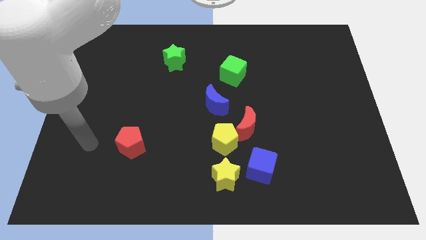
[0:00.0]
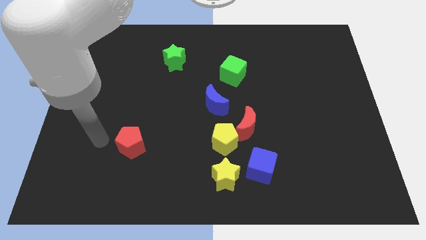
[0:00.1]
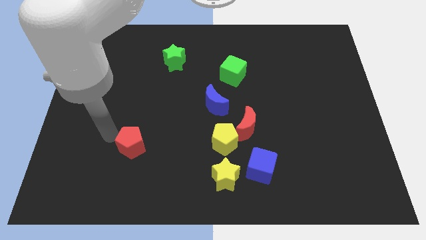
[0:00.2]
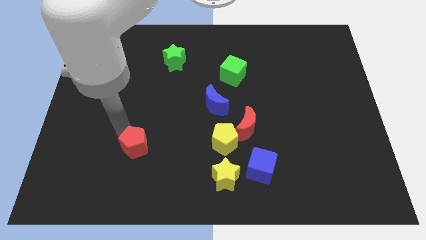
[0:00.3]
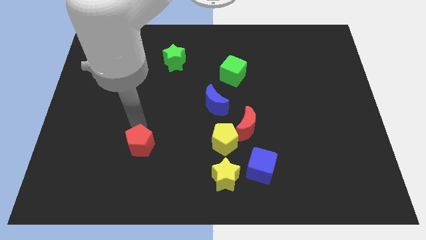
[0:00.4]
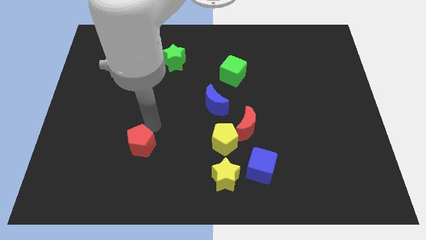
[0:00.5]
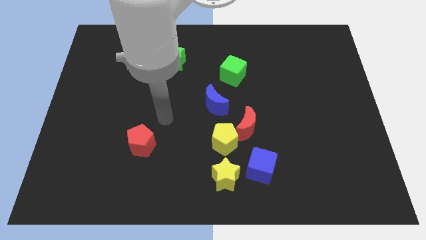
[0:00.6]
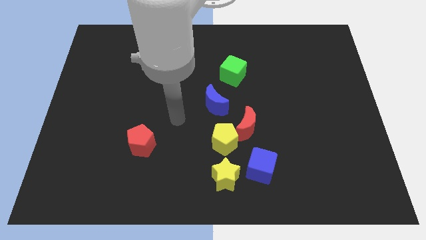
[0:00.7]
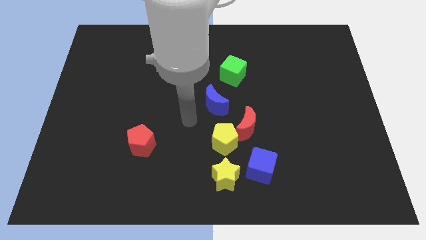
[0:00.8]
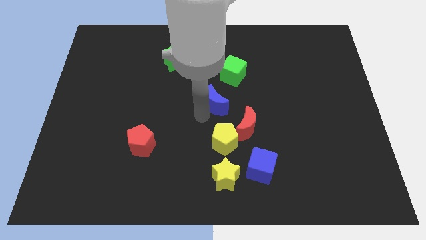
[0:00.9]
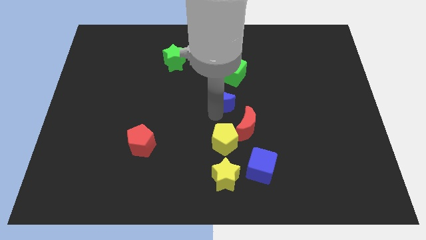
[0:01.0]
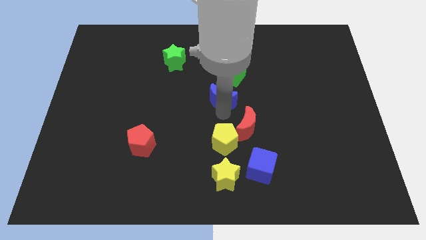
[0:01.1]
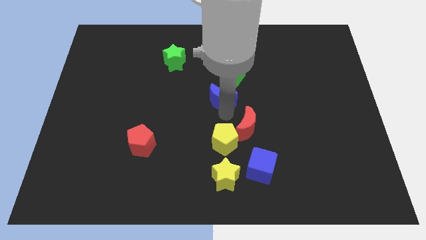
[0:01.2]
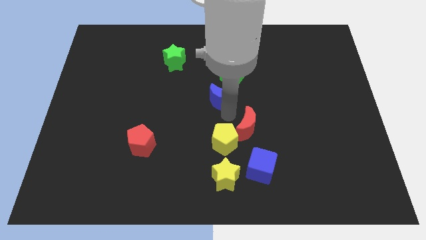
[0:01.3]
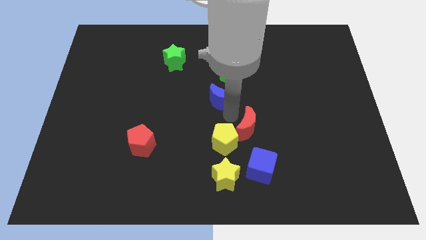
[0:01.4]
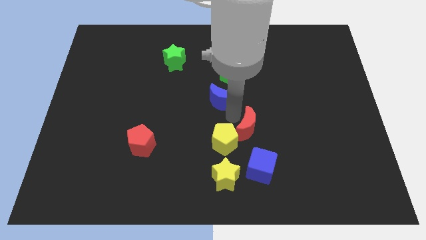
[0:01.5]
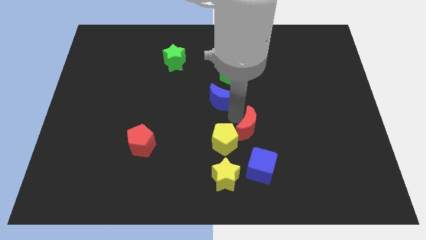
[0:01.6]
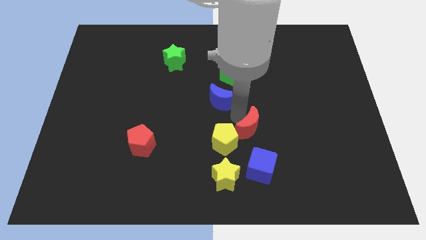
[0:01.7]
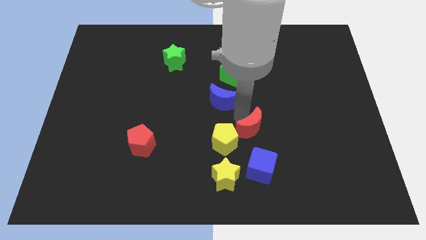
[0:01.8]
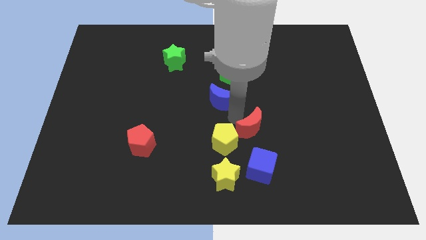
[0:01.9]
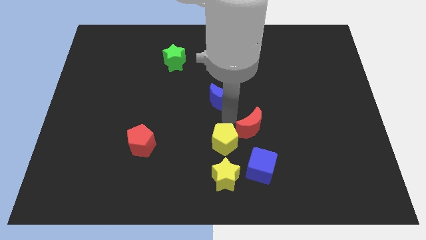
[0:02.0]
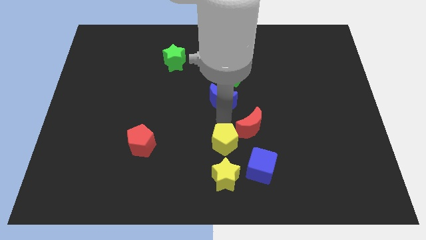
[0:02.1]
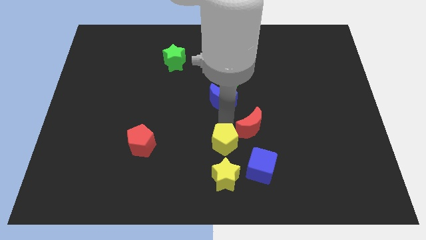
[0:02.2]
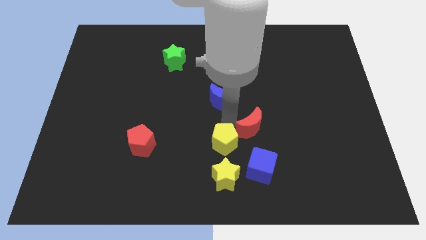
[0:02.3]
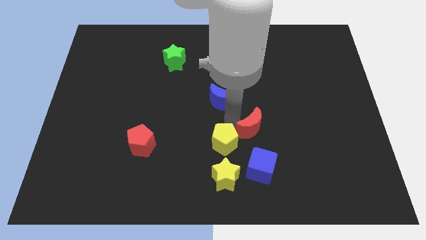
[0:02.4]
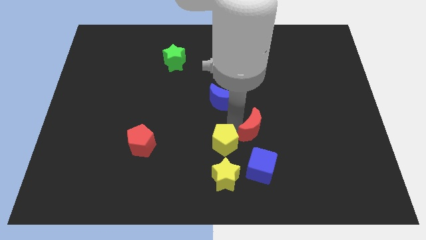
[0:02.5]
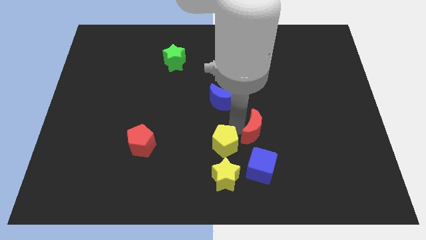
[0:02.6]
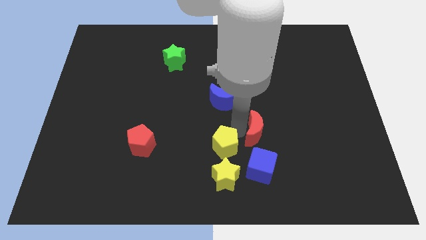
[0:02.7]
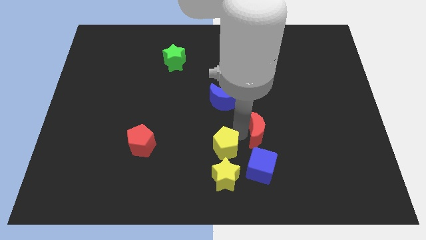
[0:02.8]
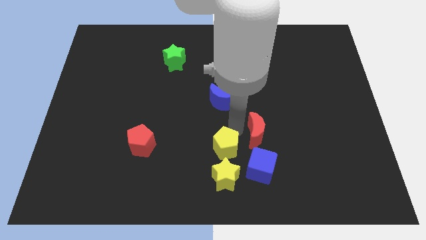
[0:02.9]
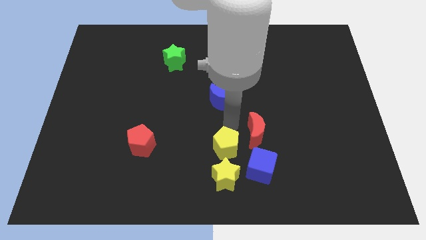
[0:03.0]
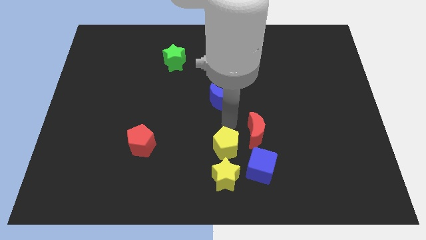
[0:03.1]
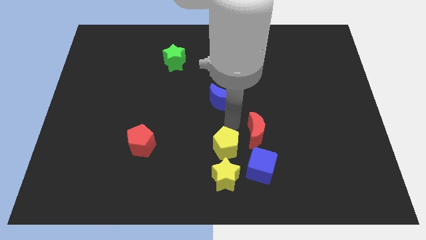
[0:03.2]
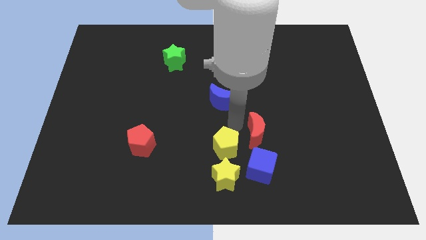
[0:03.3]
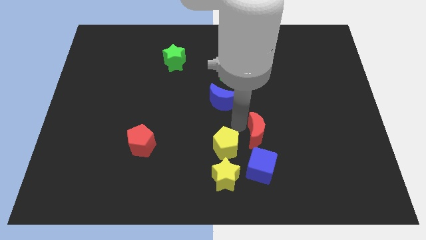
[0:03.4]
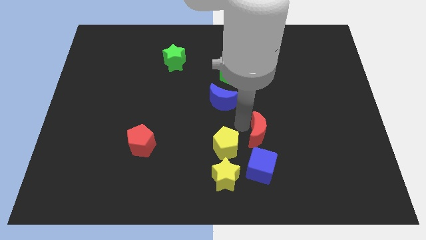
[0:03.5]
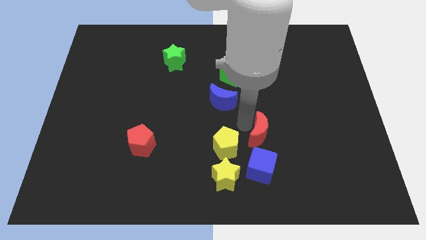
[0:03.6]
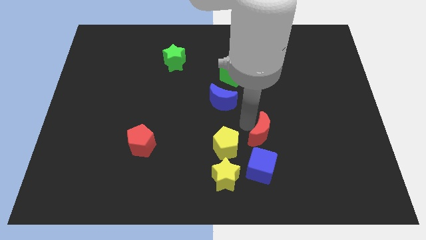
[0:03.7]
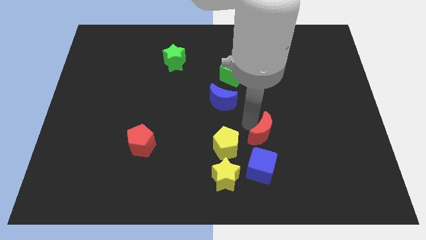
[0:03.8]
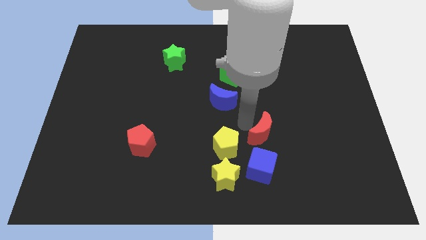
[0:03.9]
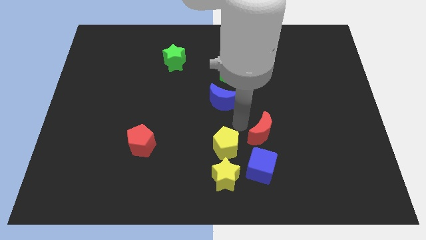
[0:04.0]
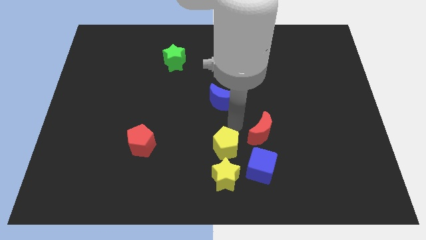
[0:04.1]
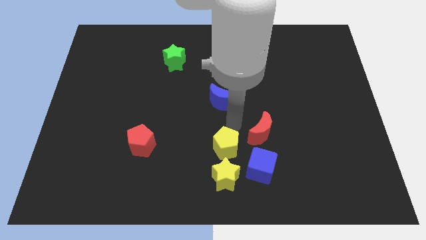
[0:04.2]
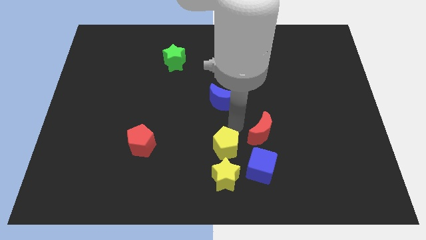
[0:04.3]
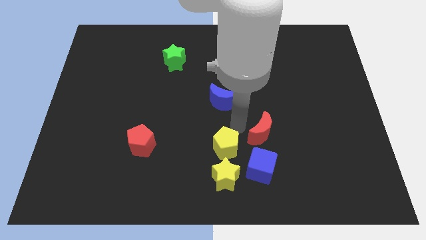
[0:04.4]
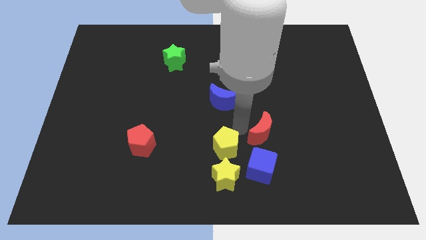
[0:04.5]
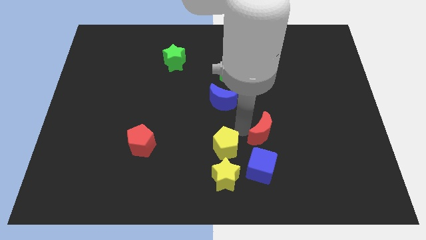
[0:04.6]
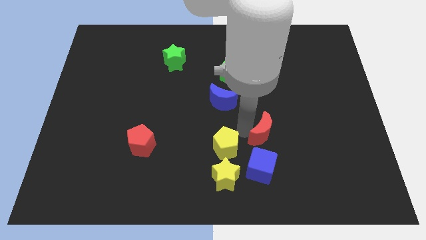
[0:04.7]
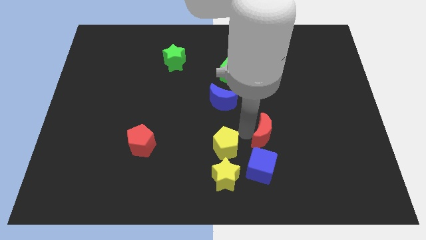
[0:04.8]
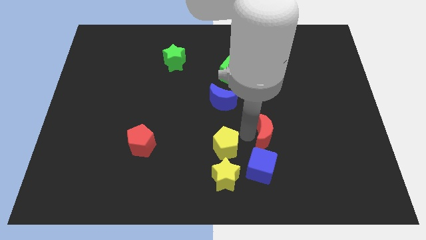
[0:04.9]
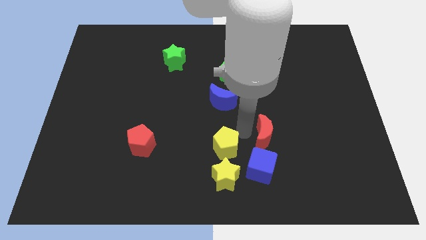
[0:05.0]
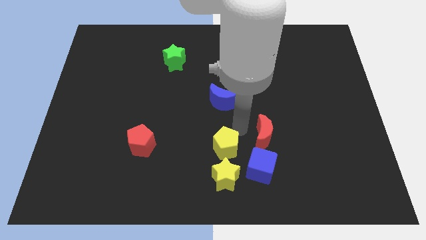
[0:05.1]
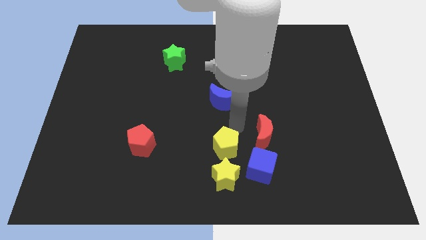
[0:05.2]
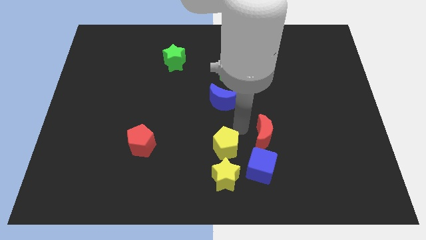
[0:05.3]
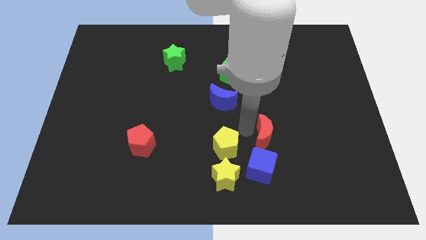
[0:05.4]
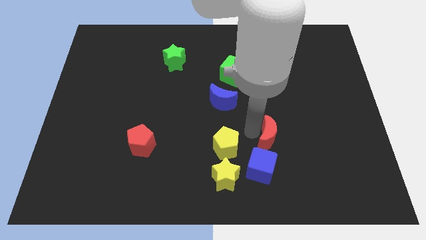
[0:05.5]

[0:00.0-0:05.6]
separate the red moon from the yellow pentagon and blue moon

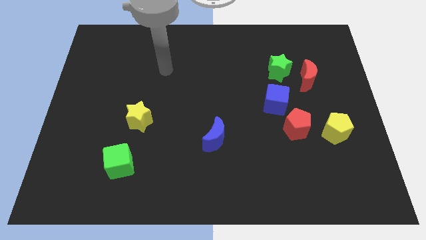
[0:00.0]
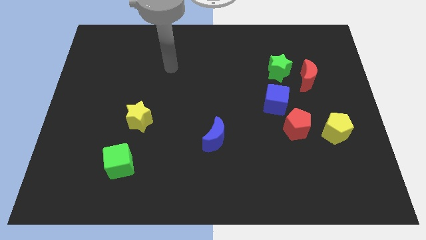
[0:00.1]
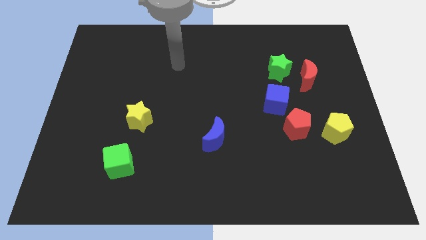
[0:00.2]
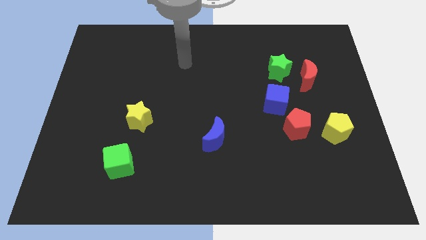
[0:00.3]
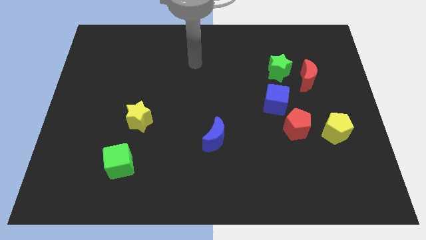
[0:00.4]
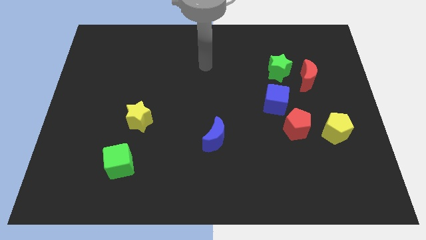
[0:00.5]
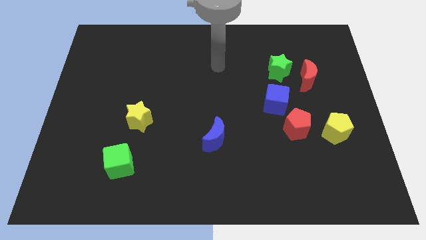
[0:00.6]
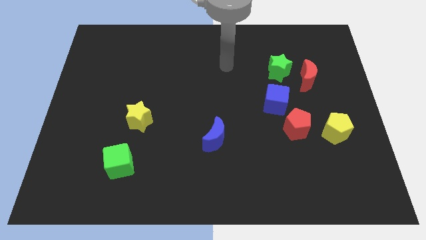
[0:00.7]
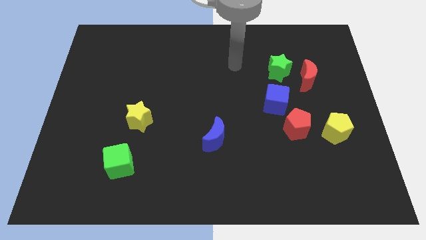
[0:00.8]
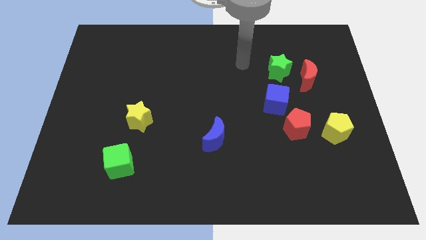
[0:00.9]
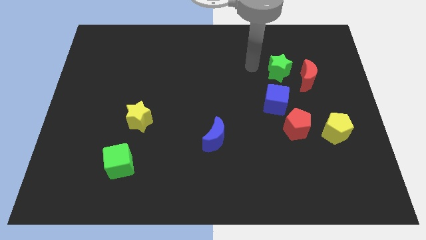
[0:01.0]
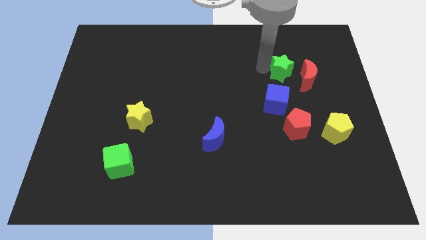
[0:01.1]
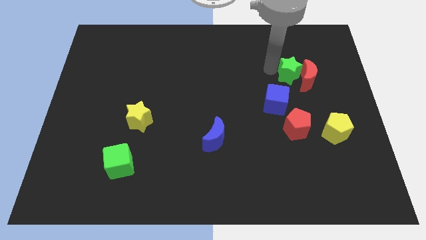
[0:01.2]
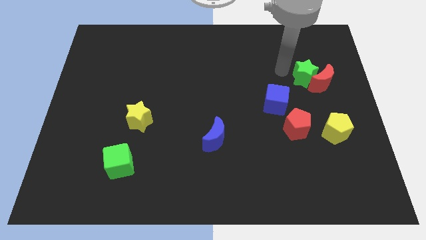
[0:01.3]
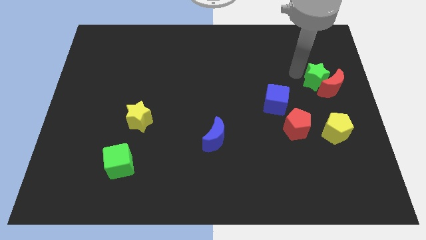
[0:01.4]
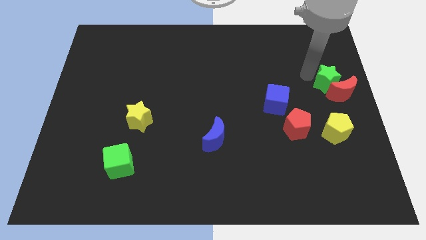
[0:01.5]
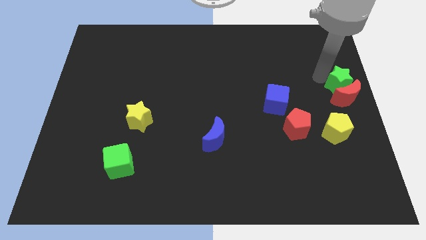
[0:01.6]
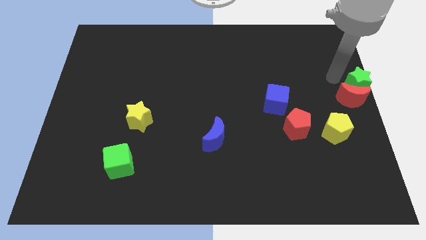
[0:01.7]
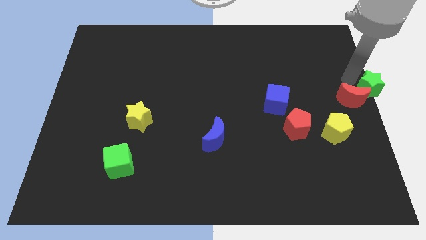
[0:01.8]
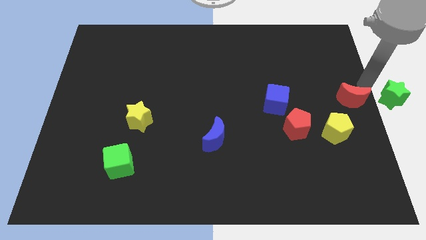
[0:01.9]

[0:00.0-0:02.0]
move the red moon away from the green star

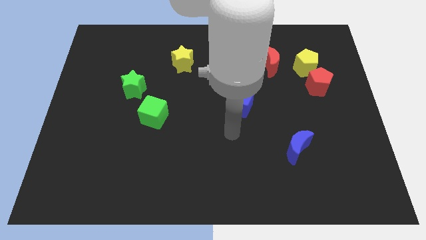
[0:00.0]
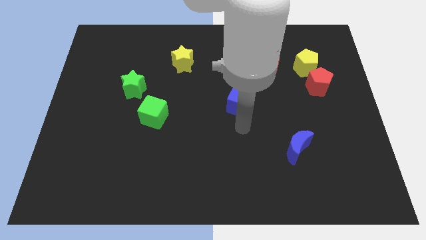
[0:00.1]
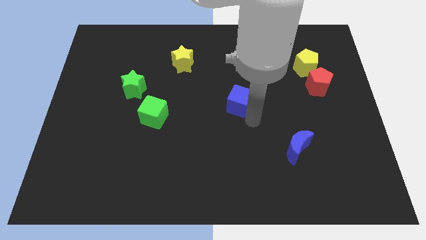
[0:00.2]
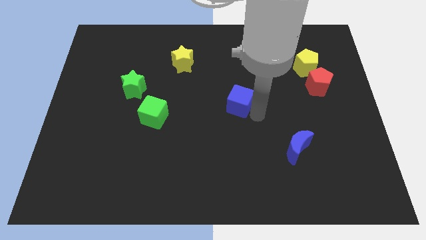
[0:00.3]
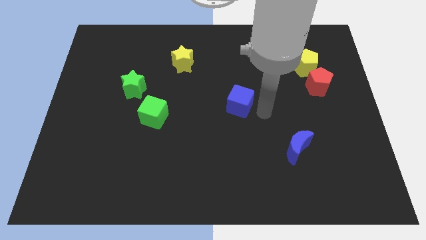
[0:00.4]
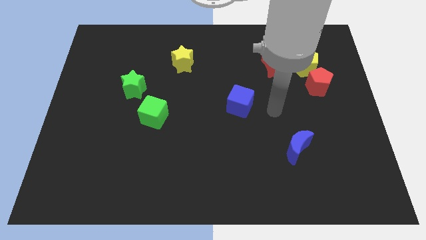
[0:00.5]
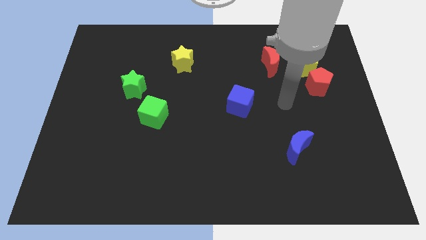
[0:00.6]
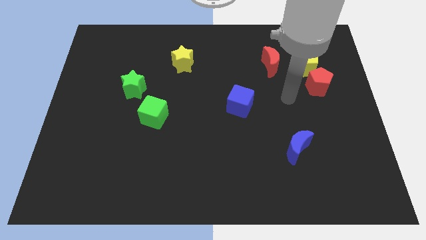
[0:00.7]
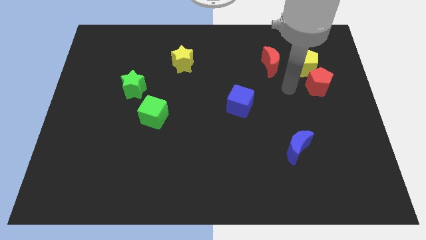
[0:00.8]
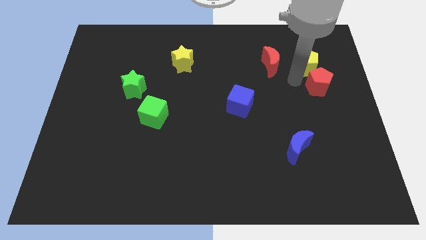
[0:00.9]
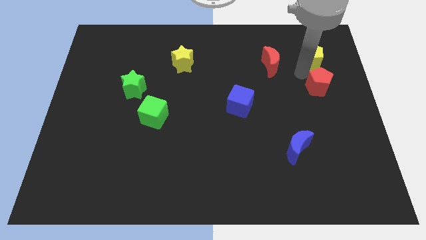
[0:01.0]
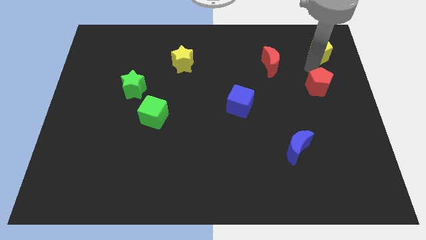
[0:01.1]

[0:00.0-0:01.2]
pull the red pentagon apart from the yellow pentagon

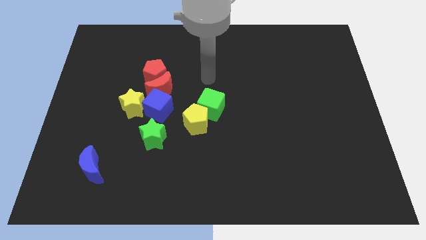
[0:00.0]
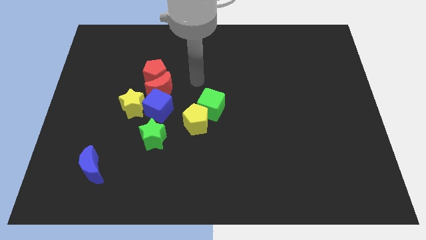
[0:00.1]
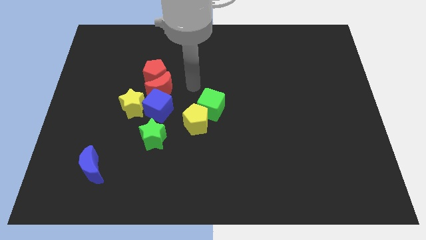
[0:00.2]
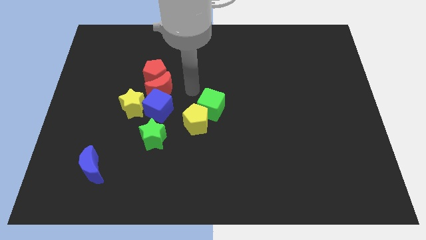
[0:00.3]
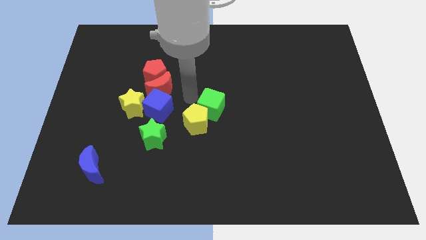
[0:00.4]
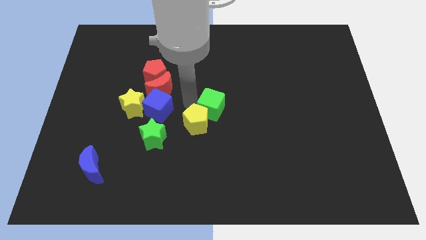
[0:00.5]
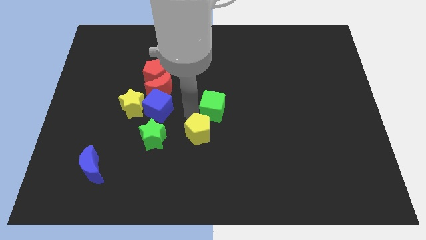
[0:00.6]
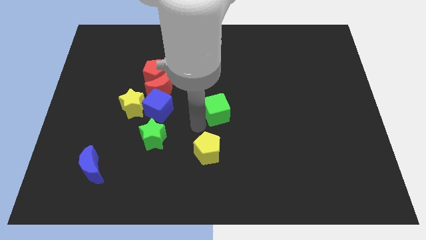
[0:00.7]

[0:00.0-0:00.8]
pull the green cube apart from the yellow pentagon
